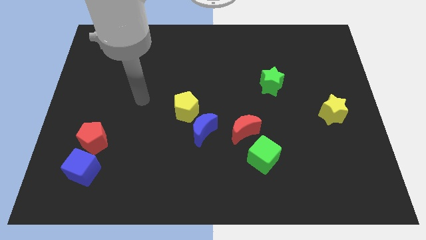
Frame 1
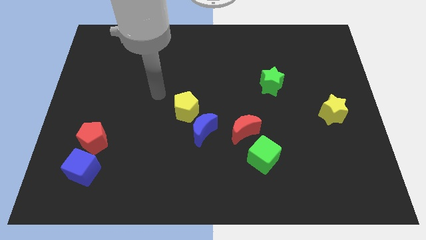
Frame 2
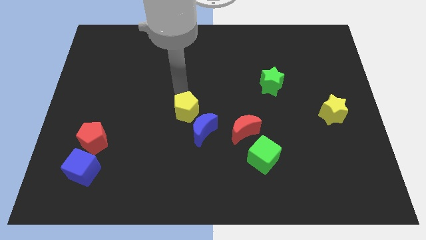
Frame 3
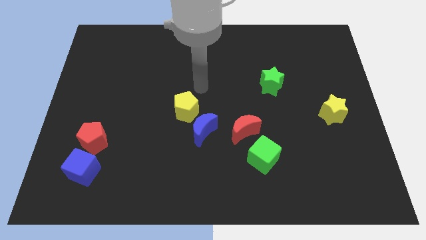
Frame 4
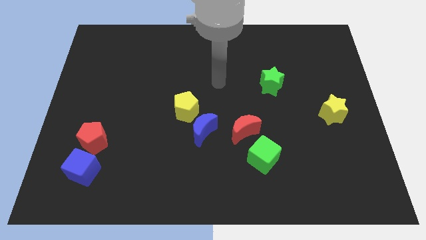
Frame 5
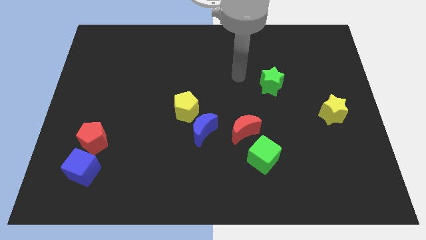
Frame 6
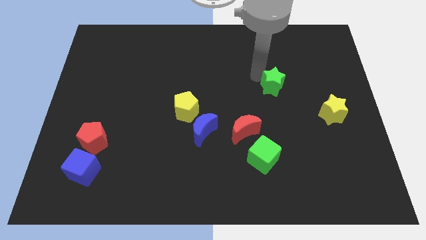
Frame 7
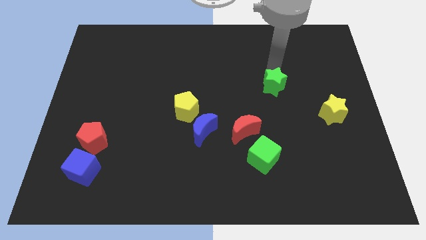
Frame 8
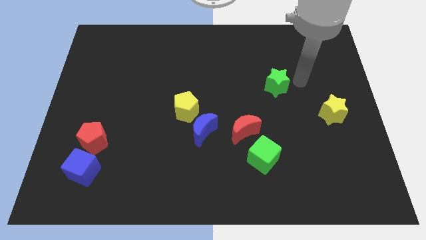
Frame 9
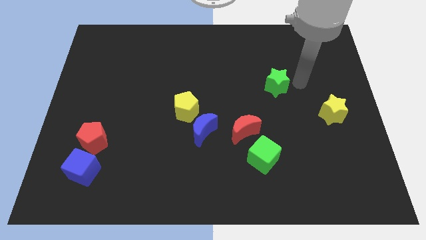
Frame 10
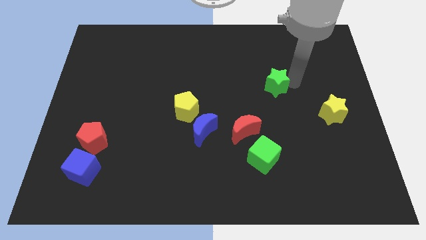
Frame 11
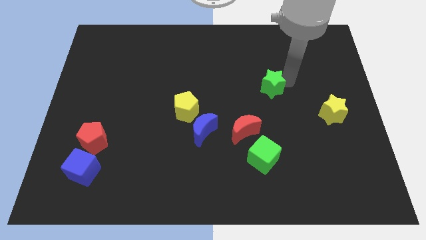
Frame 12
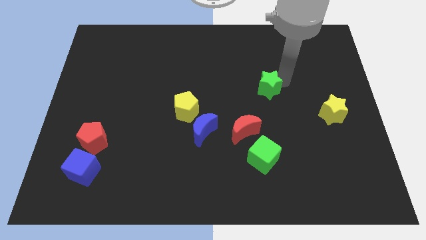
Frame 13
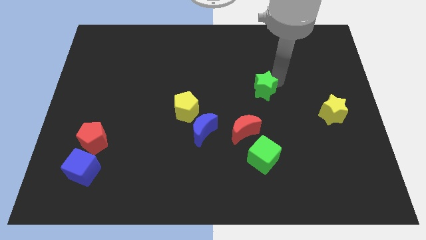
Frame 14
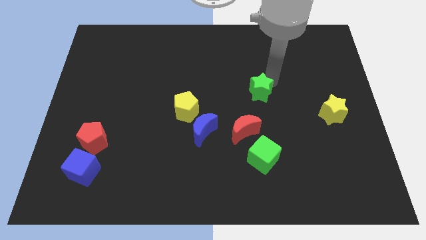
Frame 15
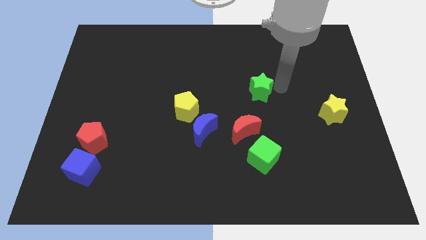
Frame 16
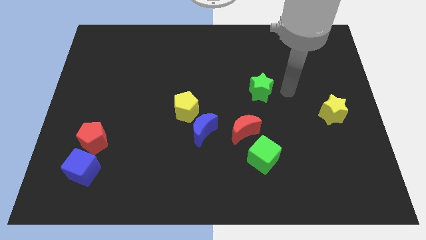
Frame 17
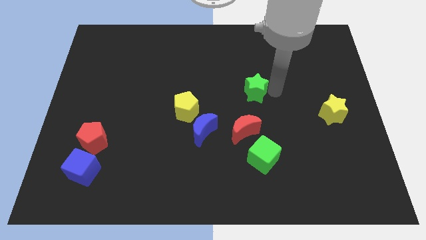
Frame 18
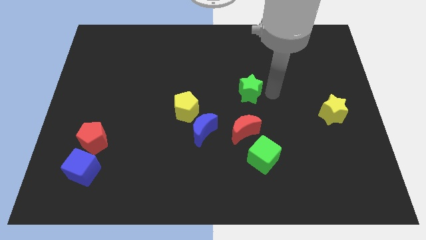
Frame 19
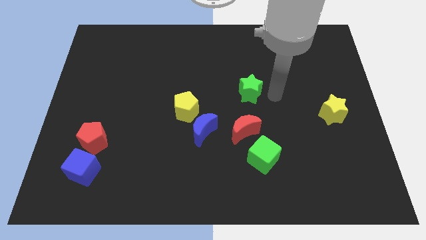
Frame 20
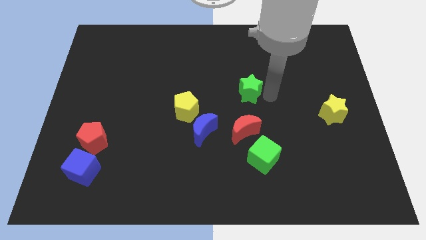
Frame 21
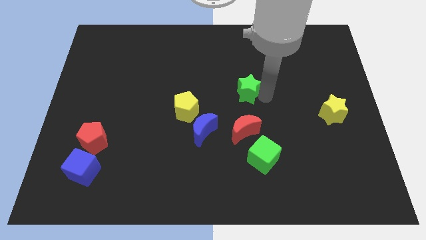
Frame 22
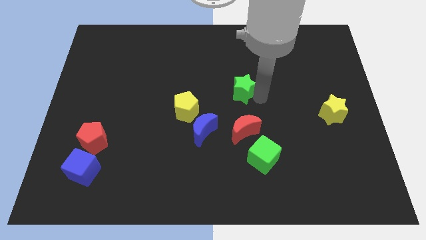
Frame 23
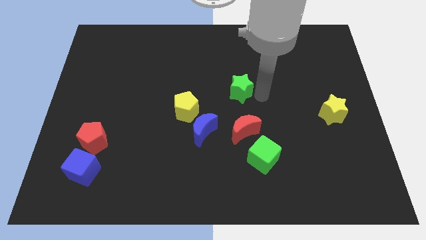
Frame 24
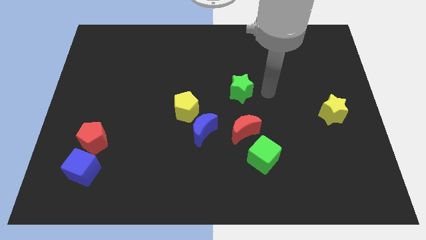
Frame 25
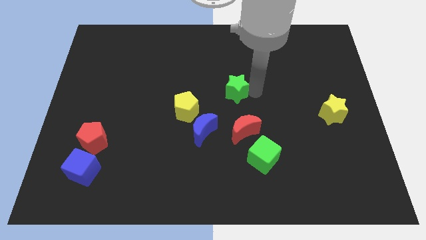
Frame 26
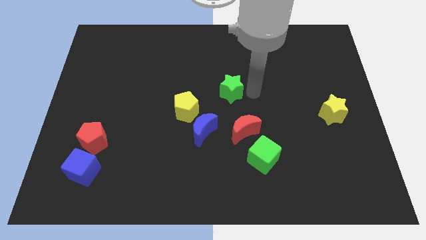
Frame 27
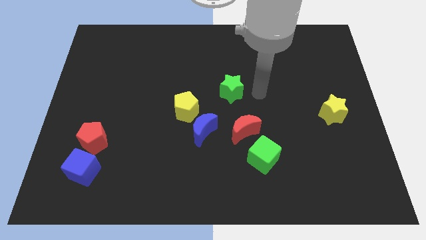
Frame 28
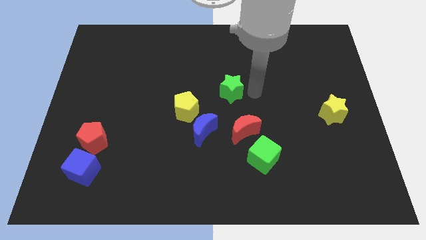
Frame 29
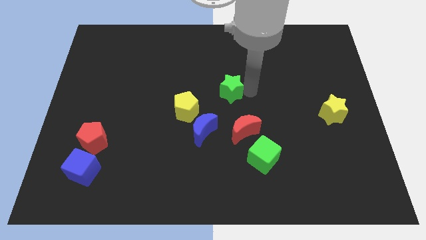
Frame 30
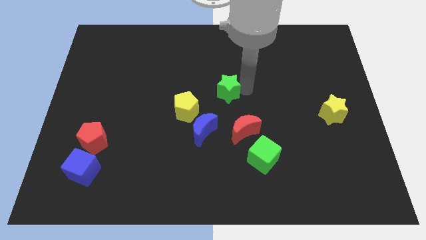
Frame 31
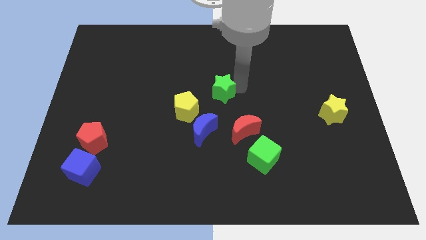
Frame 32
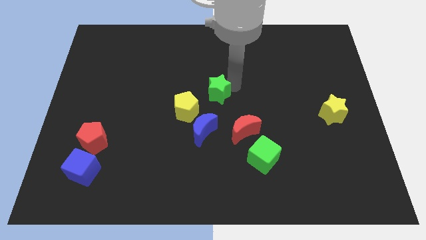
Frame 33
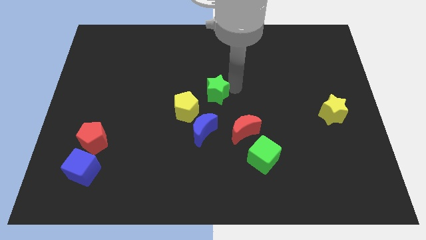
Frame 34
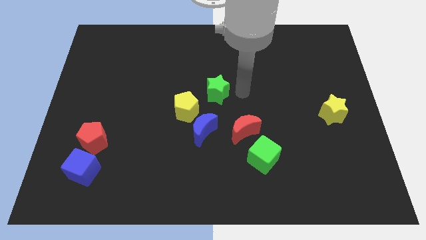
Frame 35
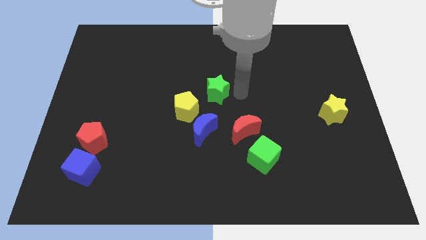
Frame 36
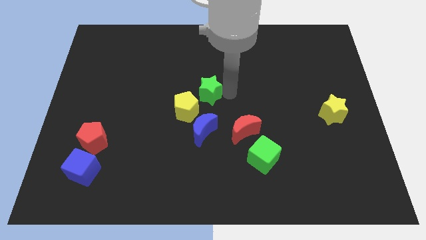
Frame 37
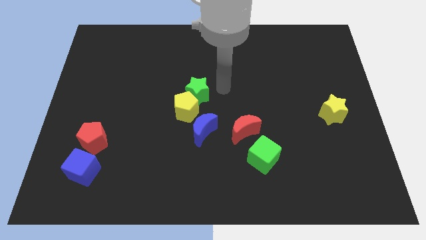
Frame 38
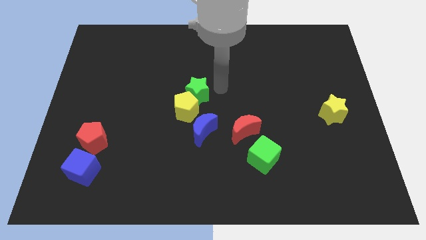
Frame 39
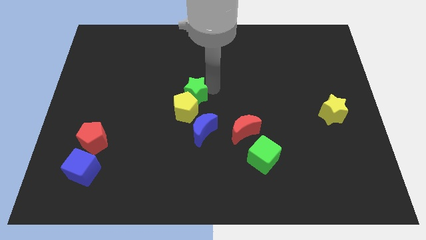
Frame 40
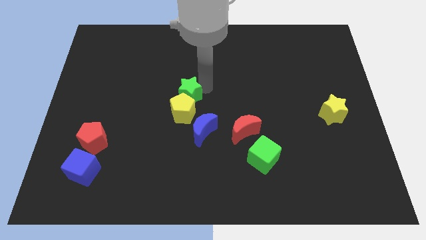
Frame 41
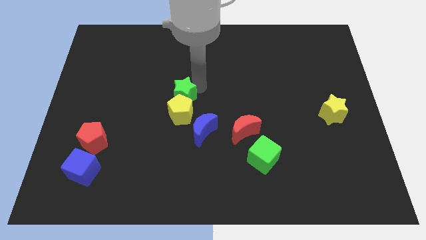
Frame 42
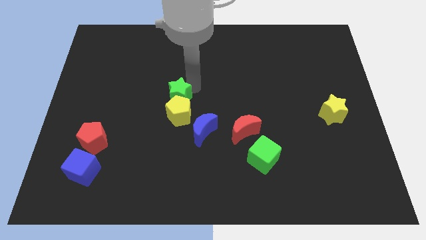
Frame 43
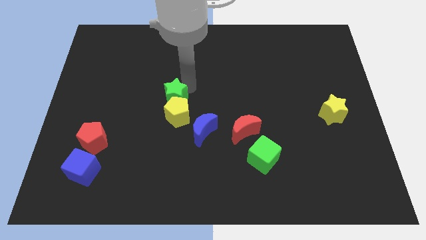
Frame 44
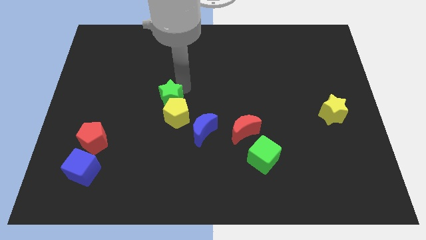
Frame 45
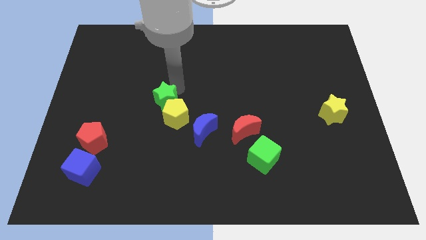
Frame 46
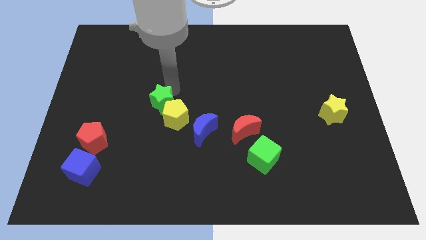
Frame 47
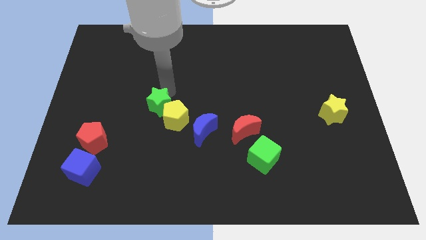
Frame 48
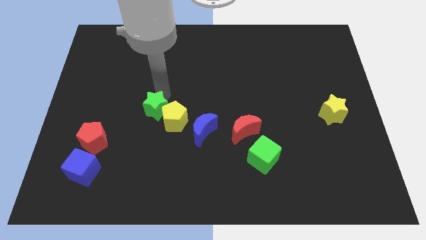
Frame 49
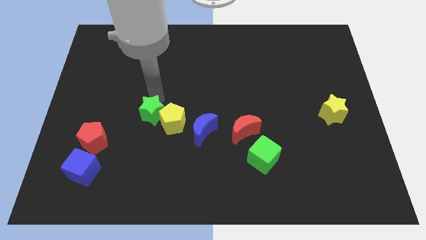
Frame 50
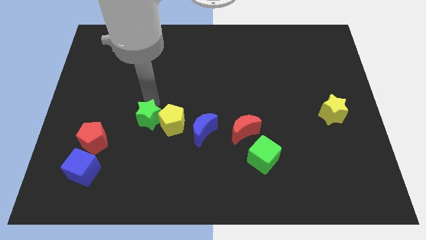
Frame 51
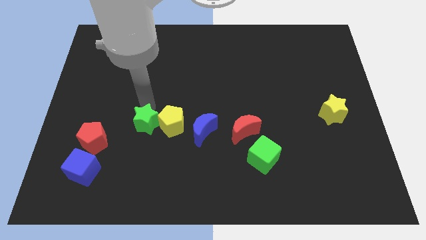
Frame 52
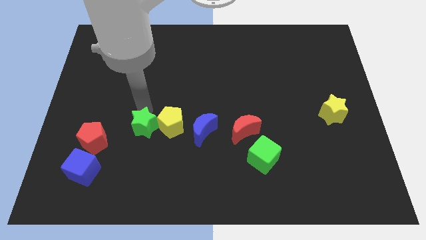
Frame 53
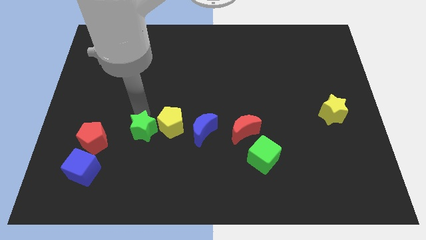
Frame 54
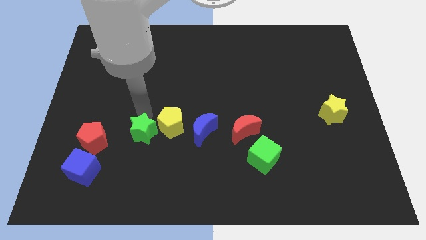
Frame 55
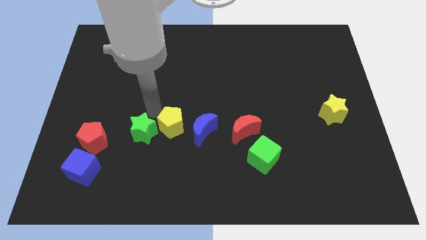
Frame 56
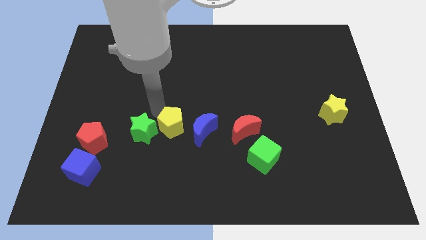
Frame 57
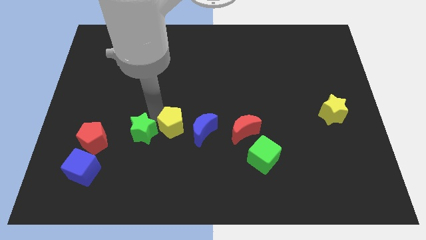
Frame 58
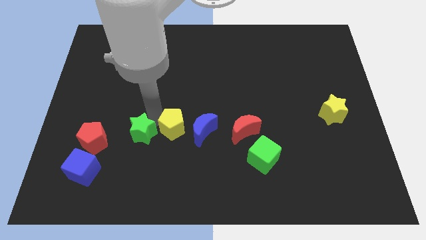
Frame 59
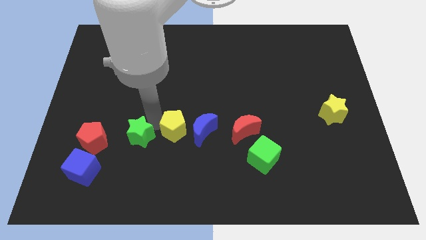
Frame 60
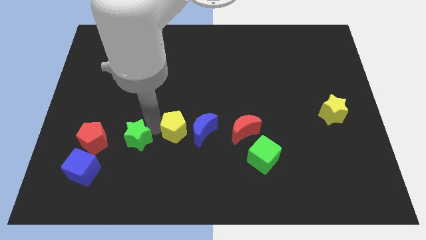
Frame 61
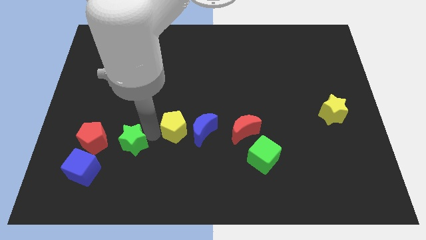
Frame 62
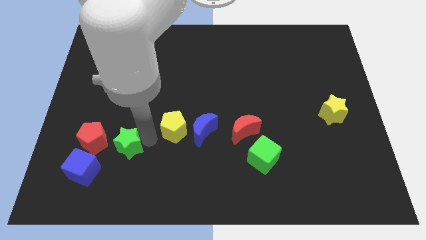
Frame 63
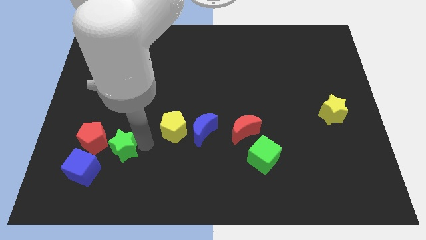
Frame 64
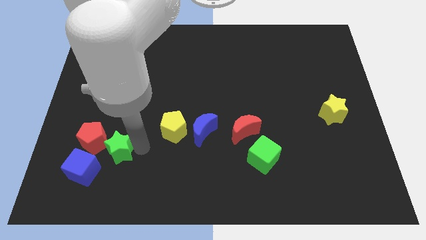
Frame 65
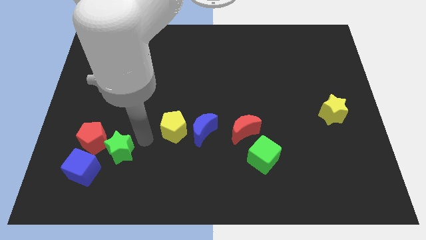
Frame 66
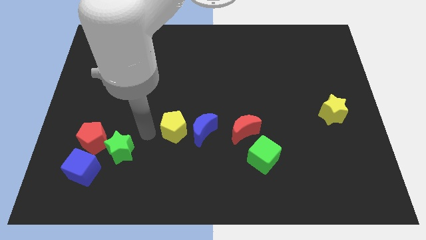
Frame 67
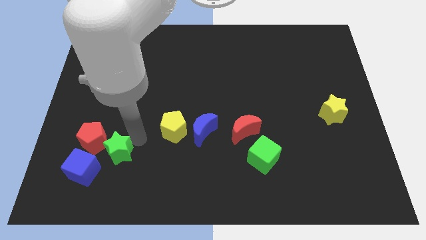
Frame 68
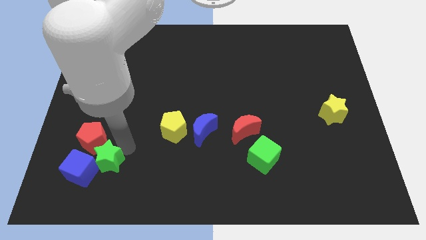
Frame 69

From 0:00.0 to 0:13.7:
move the green star close to the blue cube
